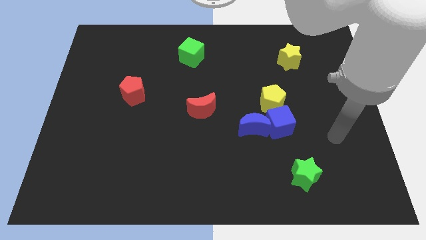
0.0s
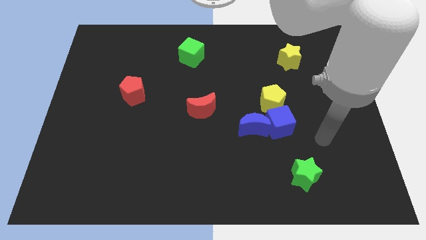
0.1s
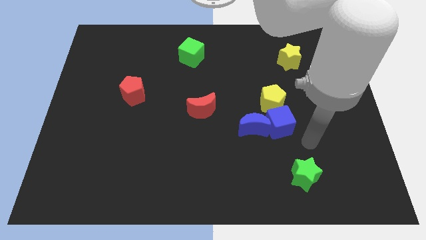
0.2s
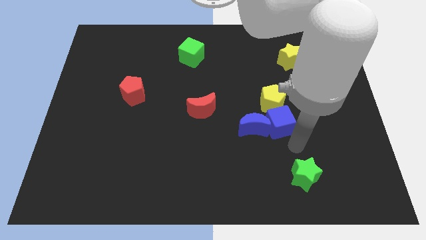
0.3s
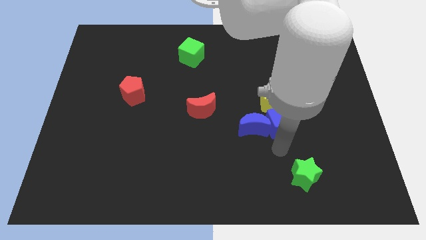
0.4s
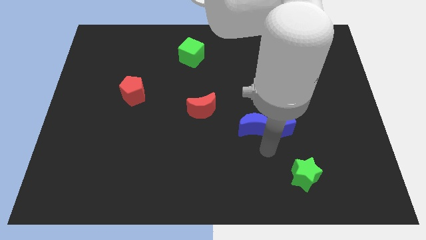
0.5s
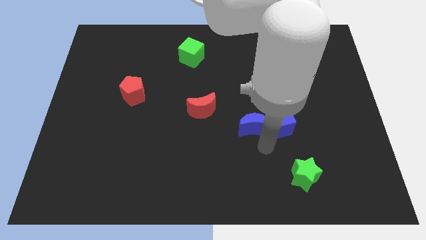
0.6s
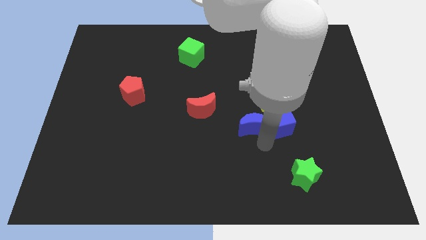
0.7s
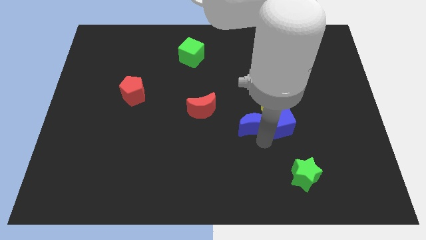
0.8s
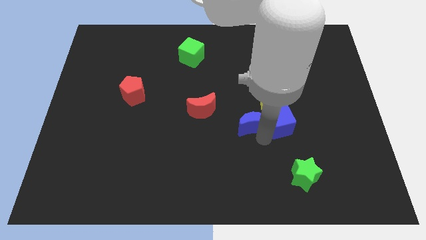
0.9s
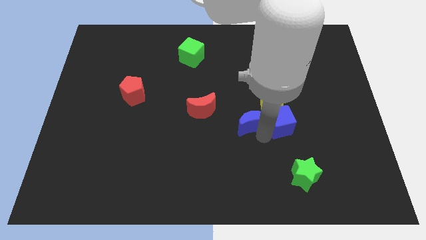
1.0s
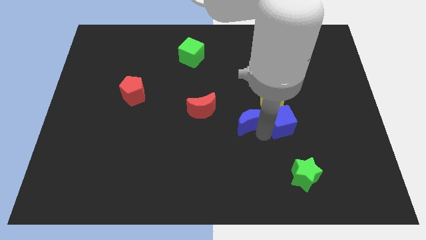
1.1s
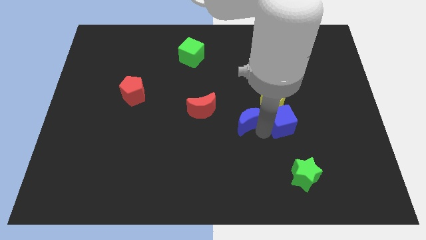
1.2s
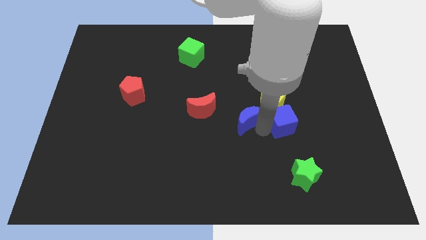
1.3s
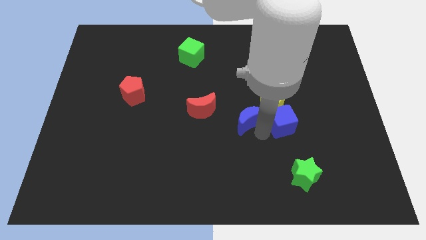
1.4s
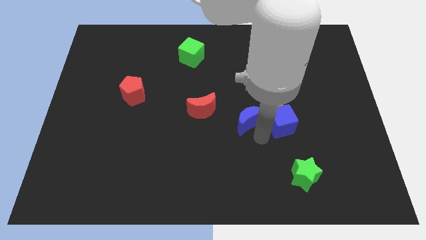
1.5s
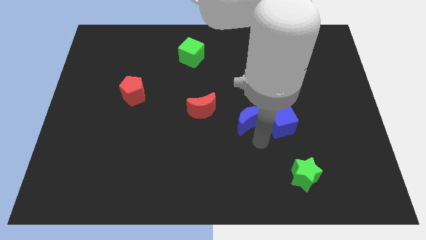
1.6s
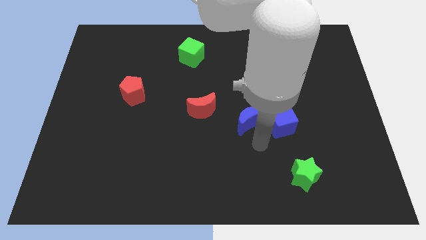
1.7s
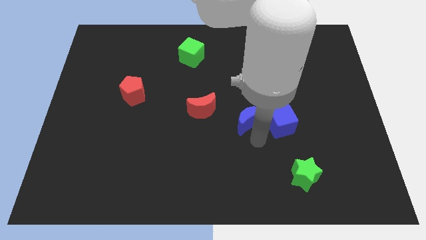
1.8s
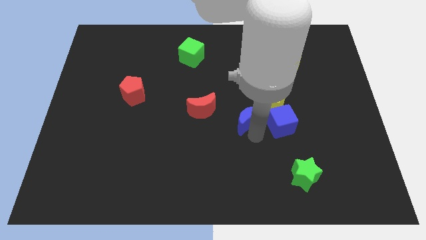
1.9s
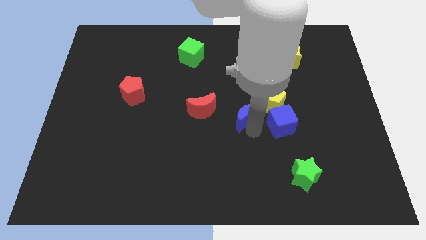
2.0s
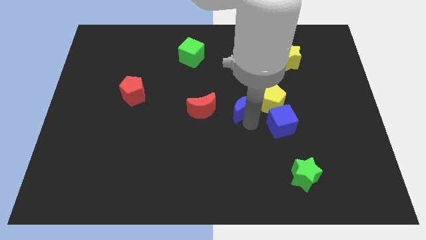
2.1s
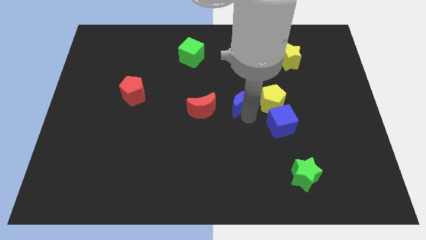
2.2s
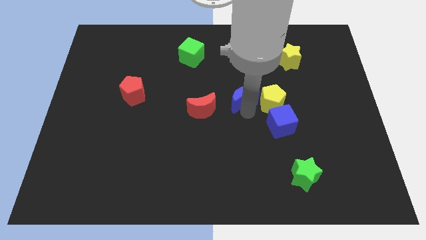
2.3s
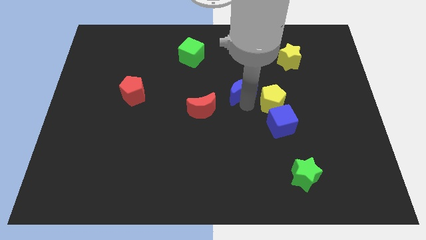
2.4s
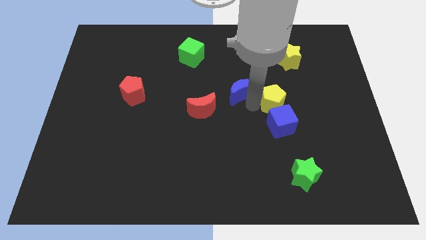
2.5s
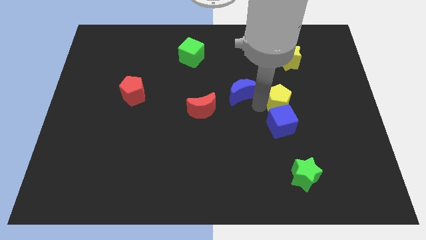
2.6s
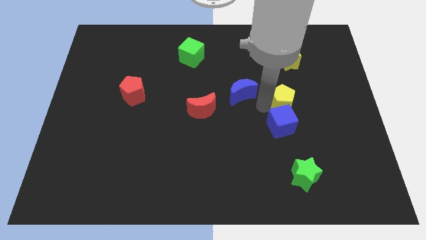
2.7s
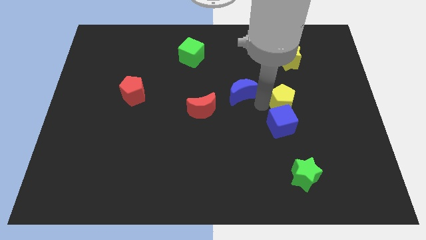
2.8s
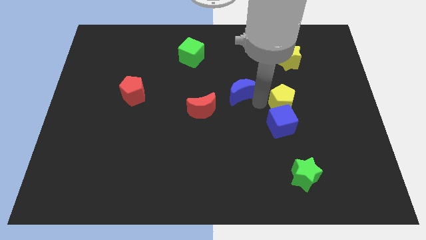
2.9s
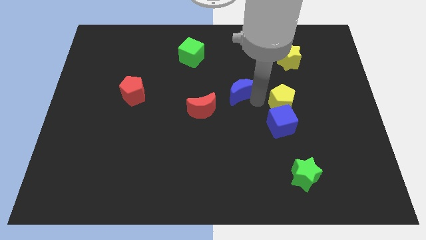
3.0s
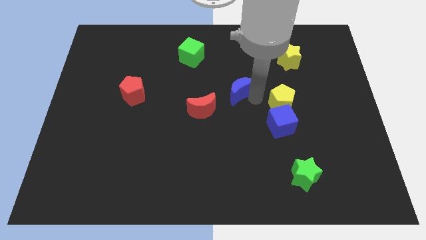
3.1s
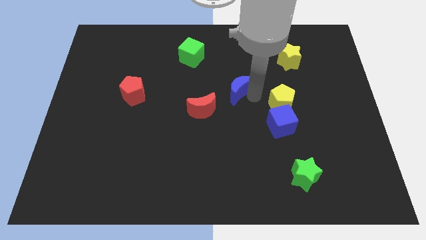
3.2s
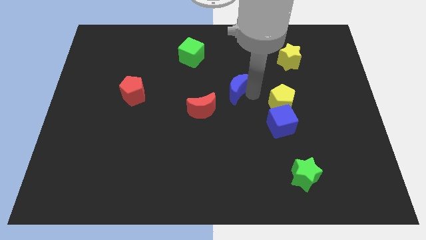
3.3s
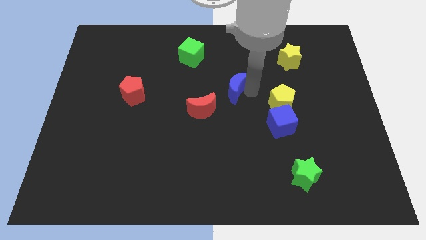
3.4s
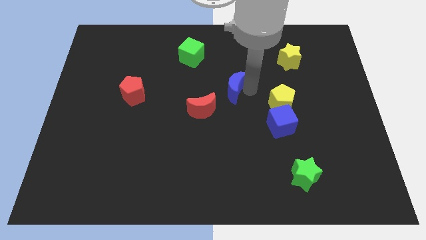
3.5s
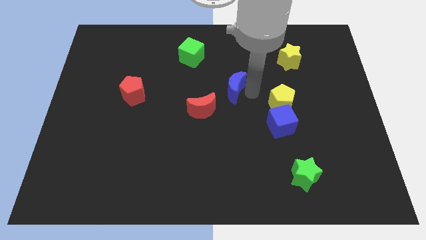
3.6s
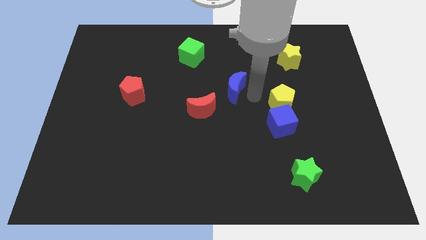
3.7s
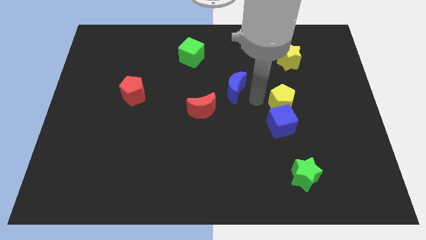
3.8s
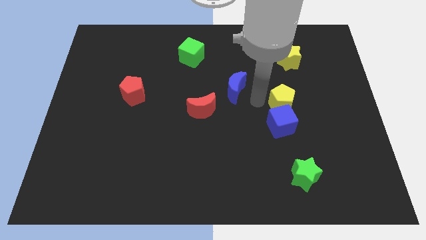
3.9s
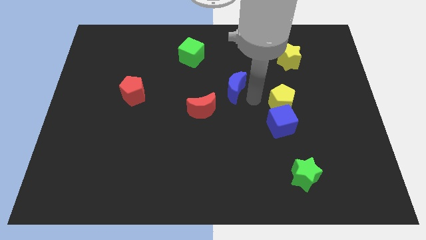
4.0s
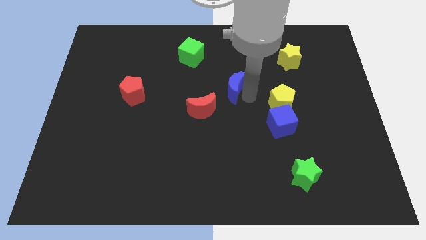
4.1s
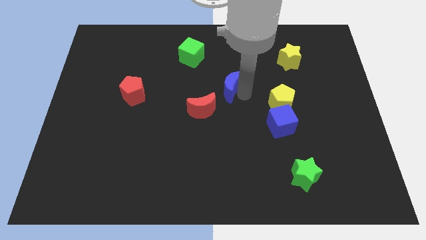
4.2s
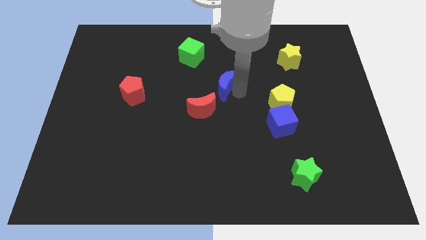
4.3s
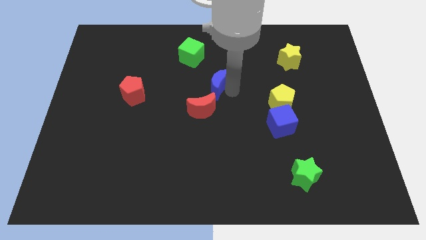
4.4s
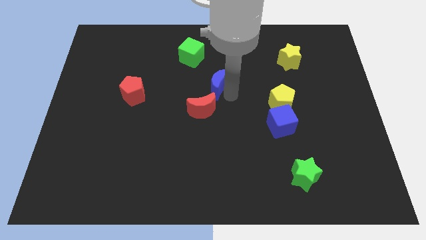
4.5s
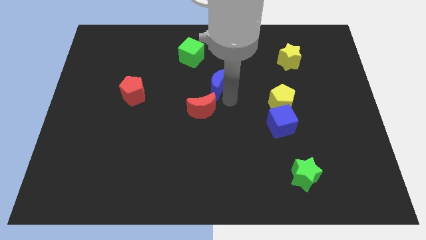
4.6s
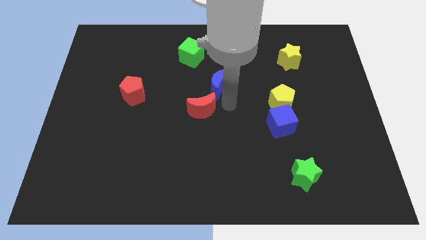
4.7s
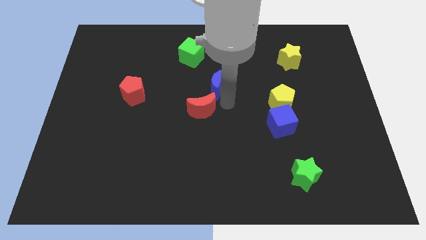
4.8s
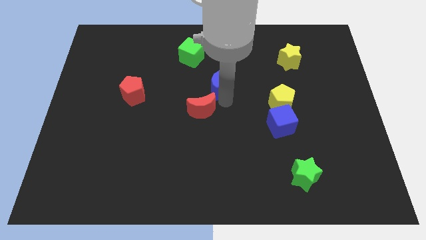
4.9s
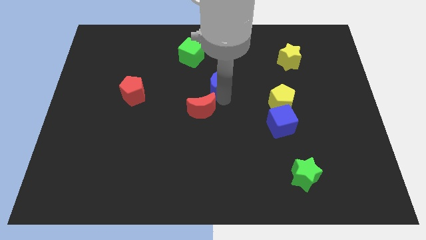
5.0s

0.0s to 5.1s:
put the blue moon diagonally down and to the right of the green cube

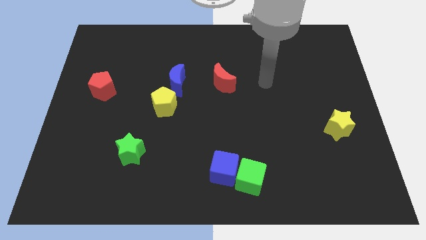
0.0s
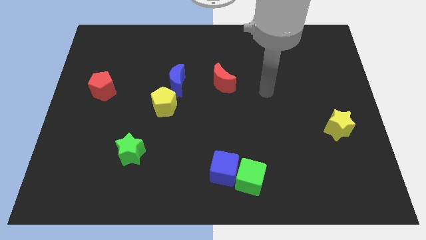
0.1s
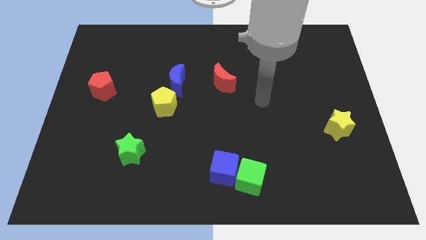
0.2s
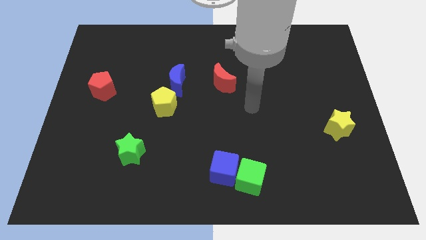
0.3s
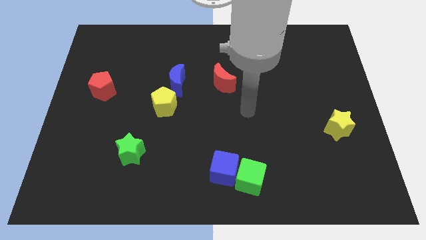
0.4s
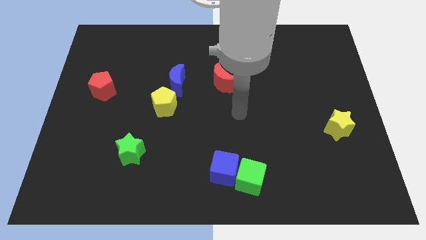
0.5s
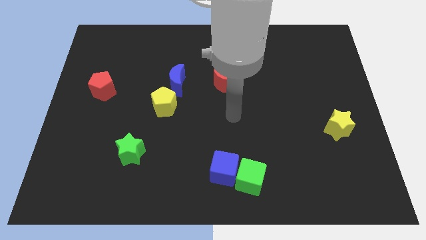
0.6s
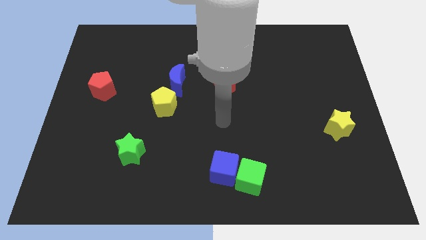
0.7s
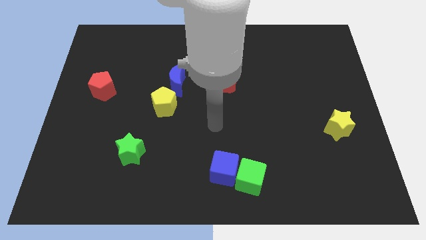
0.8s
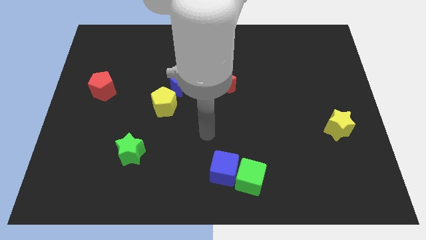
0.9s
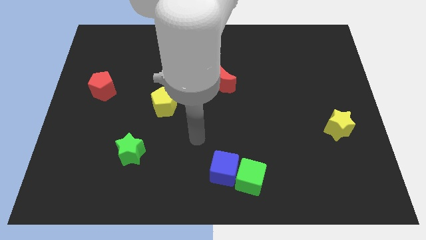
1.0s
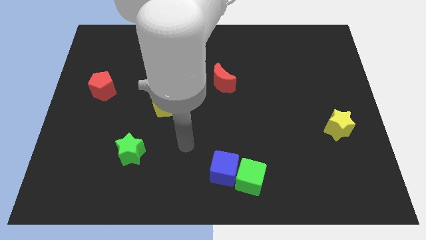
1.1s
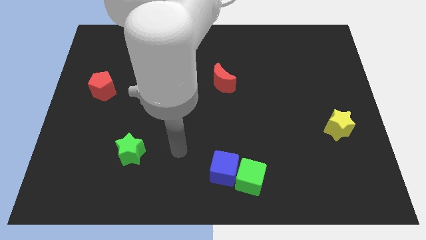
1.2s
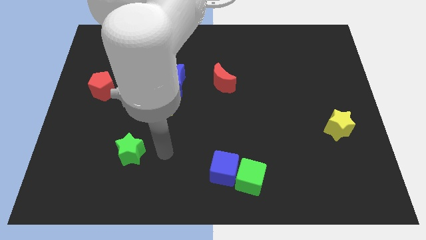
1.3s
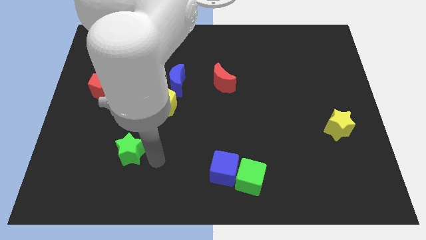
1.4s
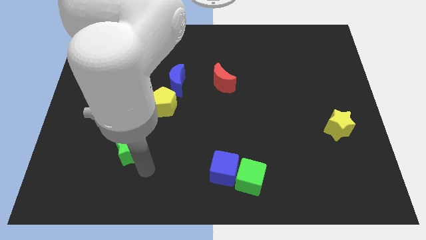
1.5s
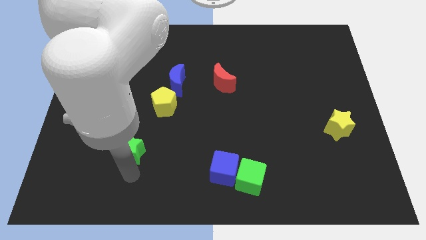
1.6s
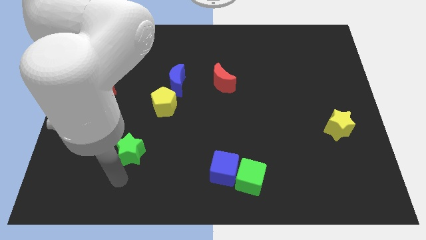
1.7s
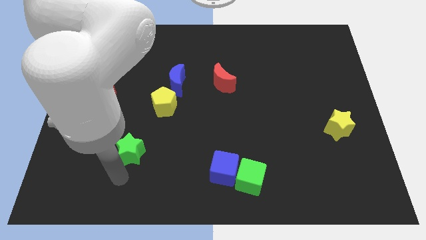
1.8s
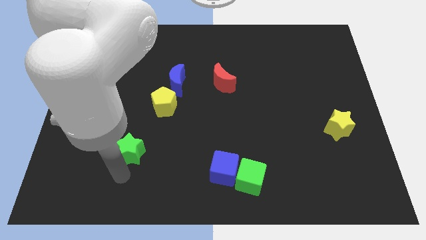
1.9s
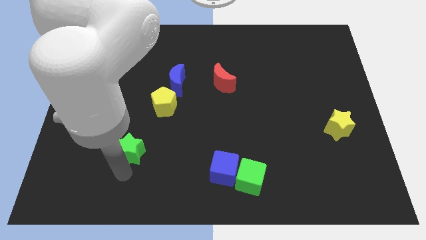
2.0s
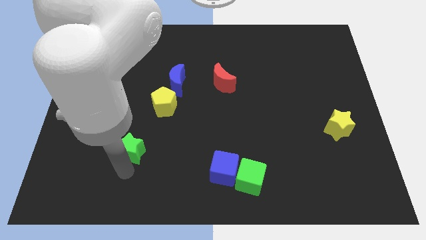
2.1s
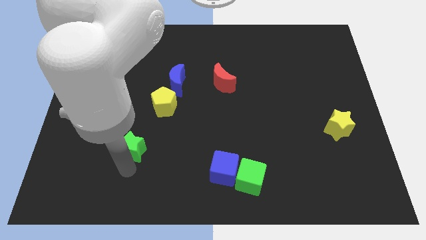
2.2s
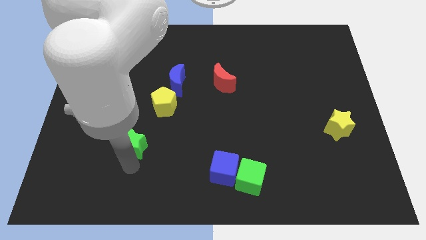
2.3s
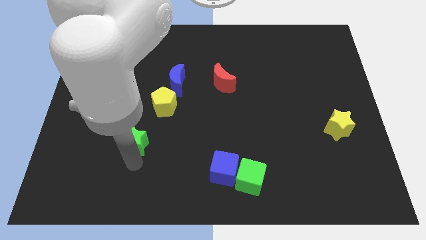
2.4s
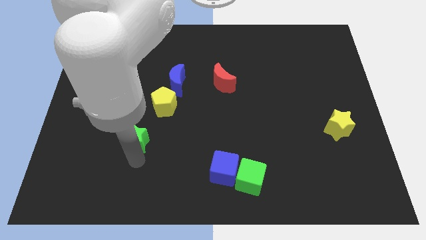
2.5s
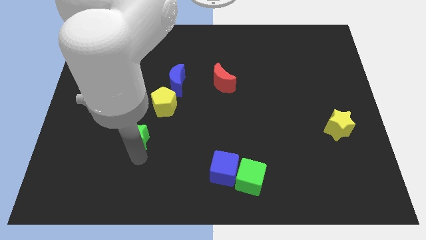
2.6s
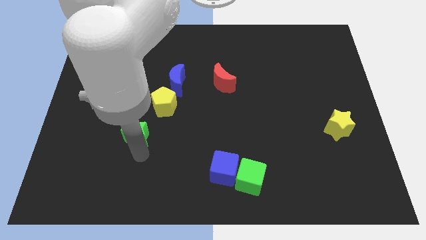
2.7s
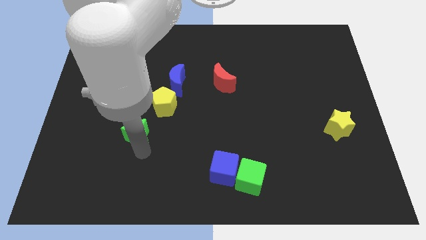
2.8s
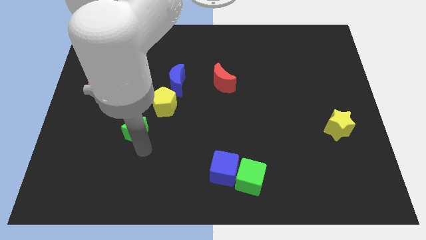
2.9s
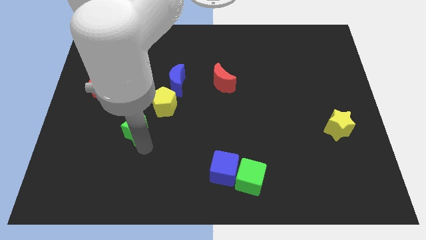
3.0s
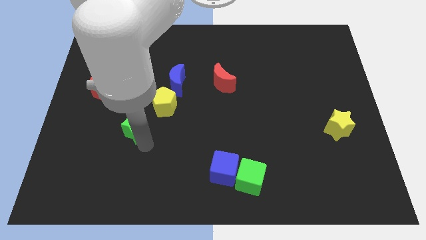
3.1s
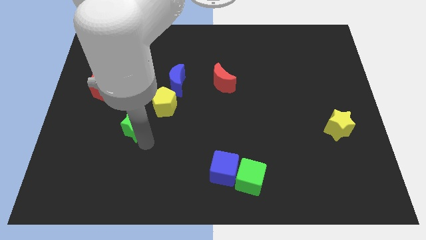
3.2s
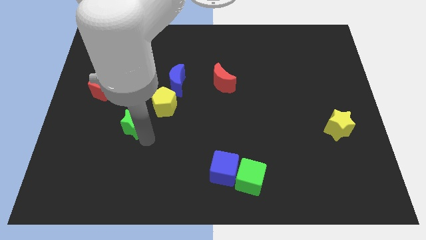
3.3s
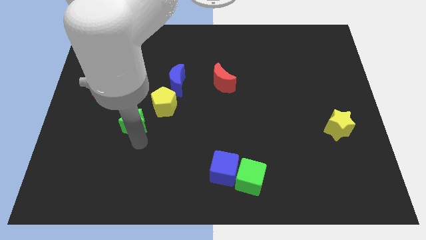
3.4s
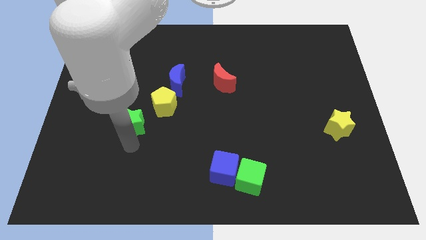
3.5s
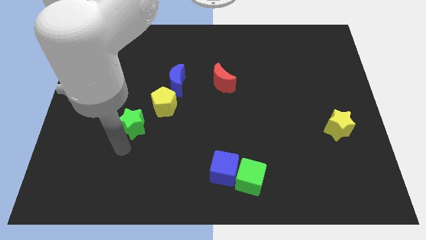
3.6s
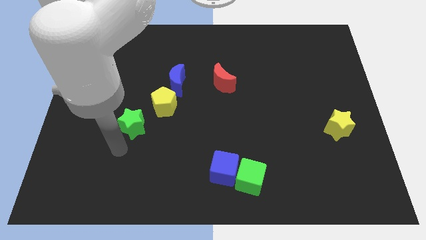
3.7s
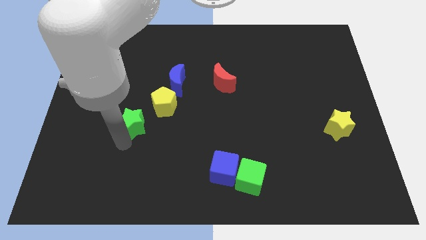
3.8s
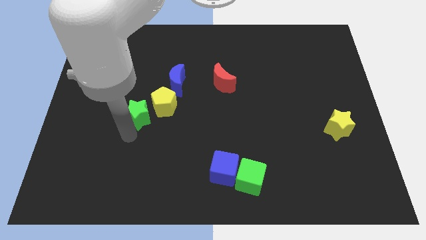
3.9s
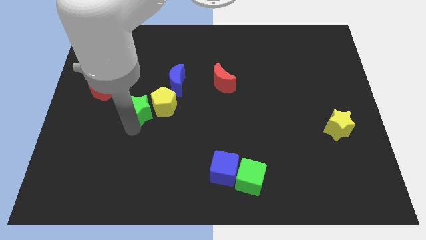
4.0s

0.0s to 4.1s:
move the green star to the bottom left of the blue moon
